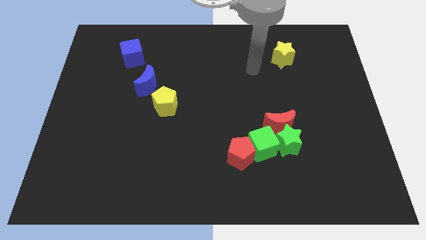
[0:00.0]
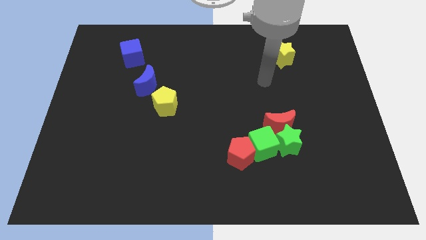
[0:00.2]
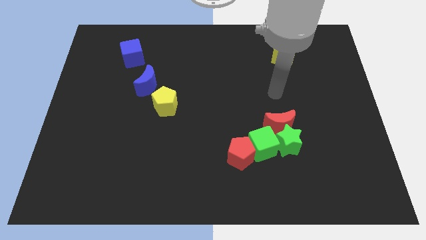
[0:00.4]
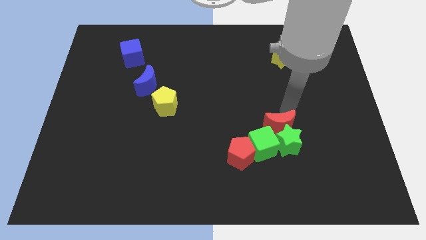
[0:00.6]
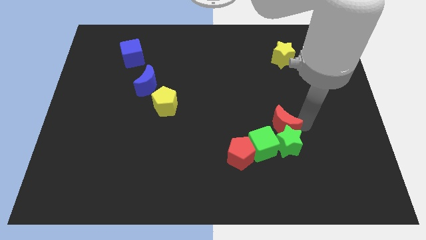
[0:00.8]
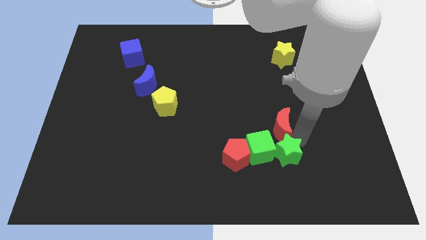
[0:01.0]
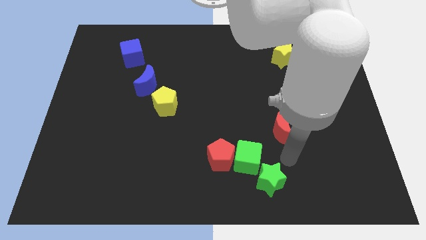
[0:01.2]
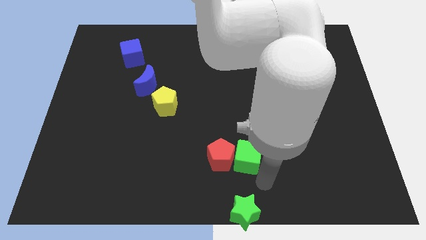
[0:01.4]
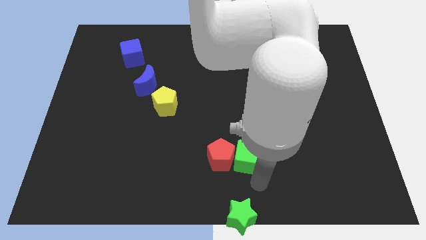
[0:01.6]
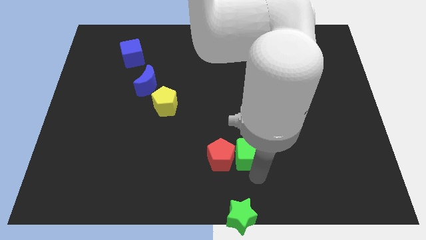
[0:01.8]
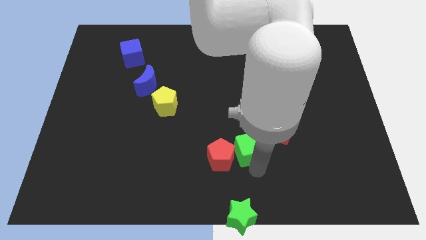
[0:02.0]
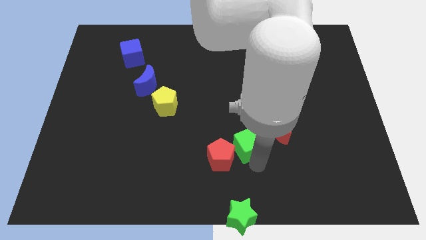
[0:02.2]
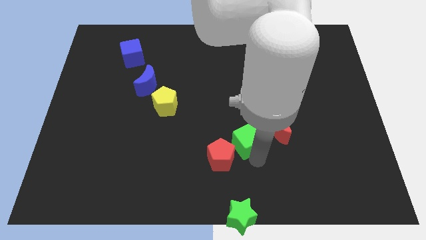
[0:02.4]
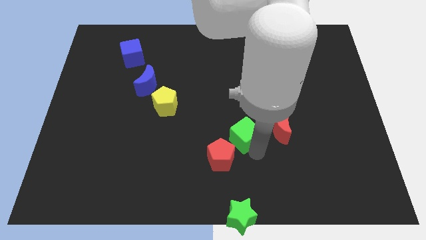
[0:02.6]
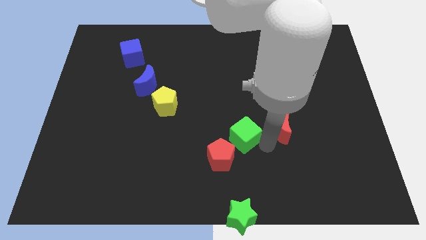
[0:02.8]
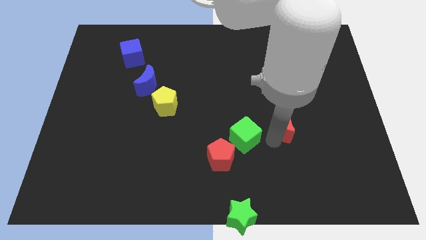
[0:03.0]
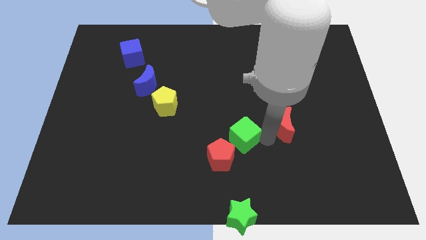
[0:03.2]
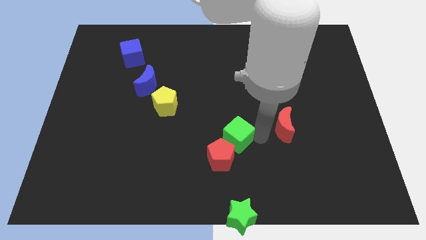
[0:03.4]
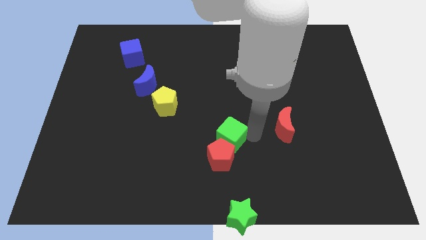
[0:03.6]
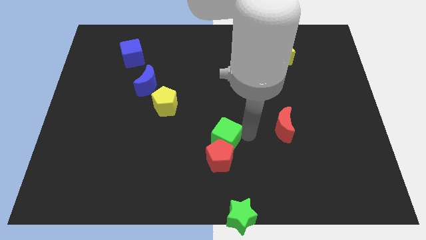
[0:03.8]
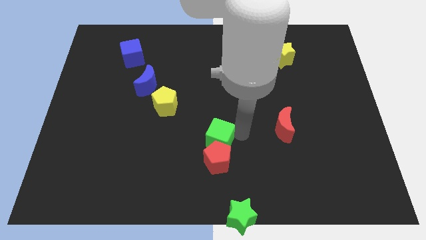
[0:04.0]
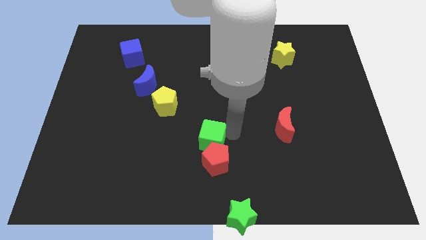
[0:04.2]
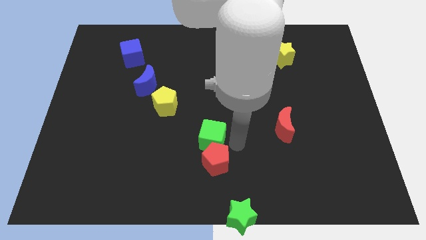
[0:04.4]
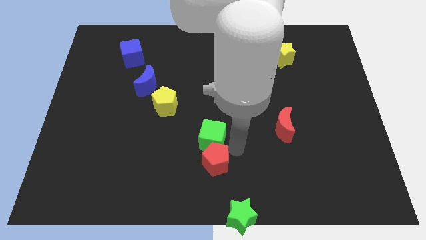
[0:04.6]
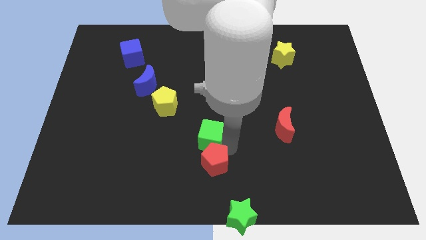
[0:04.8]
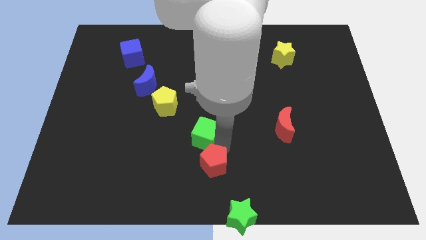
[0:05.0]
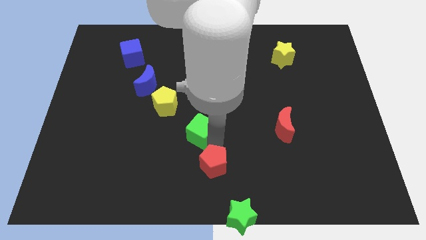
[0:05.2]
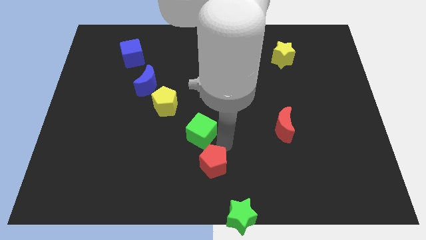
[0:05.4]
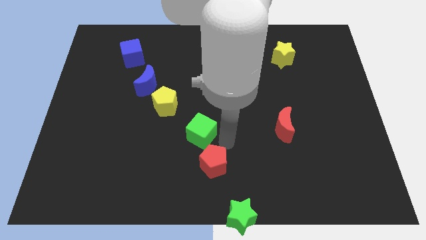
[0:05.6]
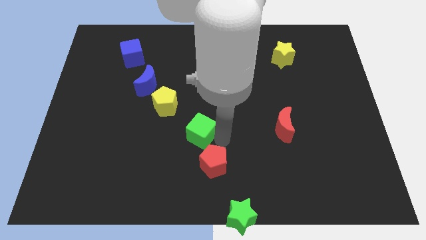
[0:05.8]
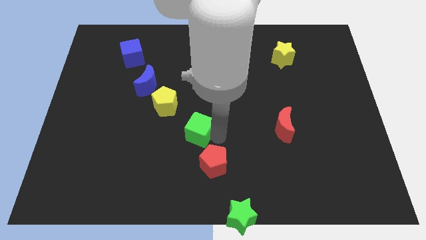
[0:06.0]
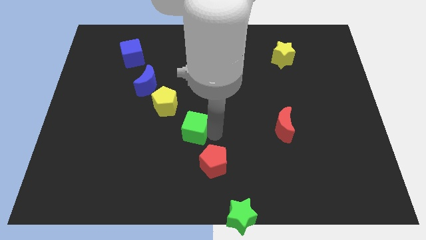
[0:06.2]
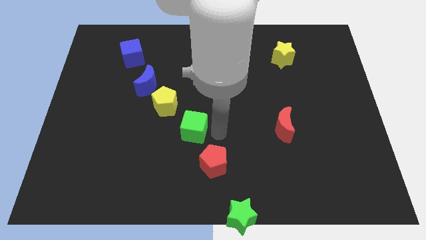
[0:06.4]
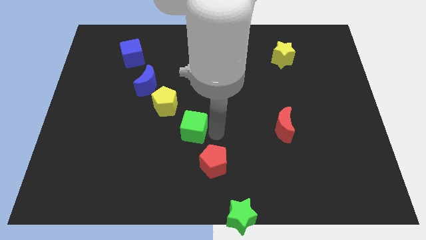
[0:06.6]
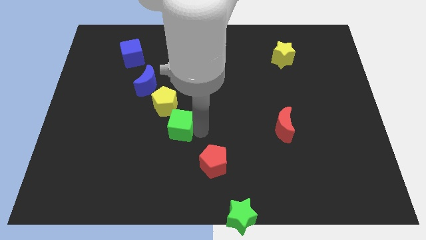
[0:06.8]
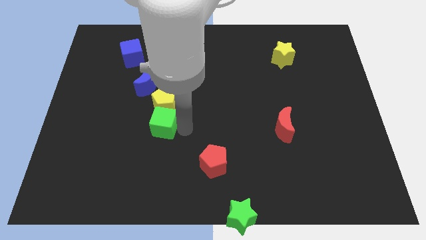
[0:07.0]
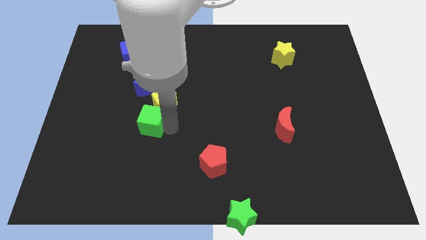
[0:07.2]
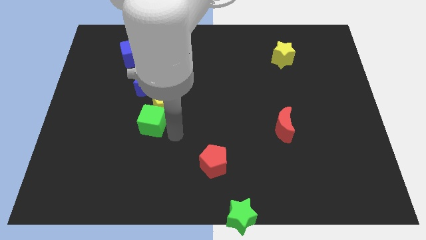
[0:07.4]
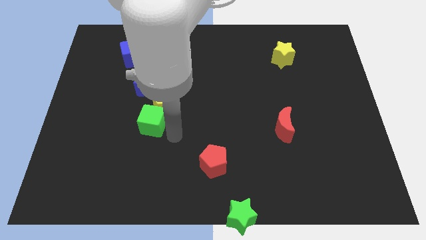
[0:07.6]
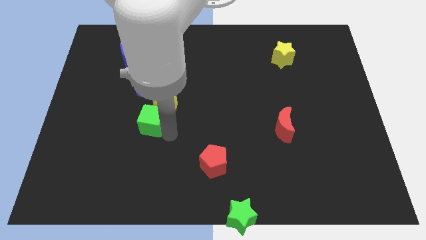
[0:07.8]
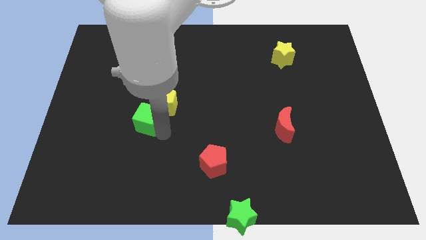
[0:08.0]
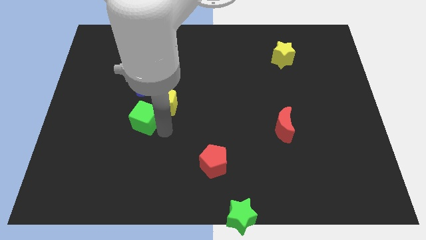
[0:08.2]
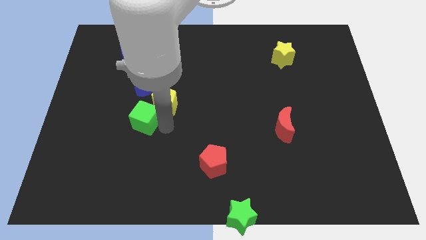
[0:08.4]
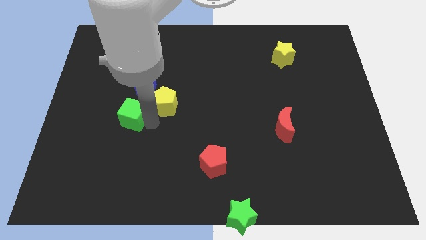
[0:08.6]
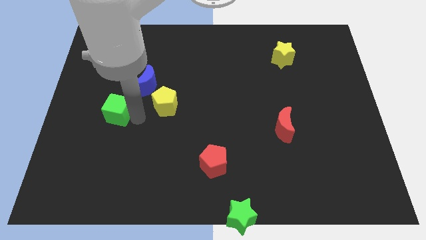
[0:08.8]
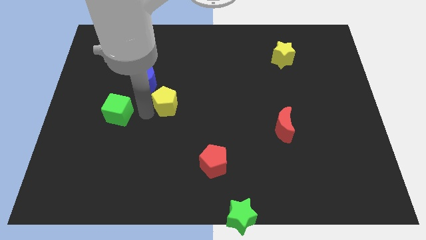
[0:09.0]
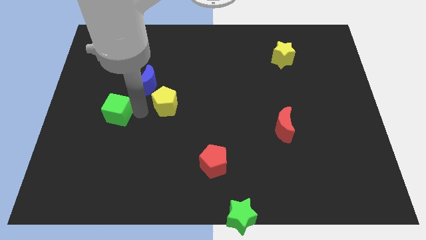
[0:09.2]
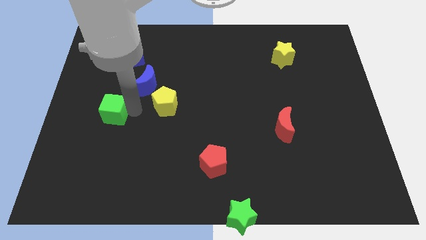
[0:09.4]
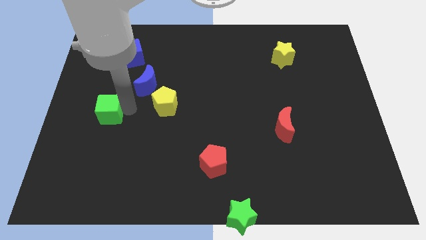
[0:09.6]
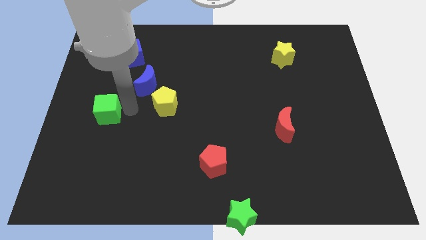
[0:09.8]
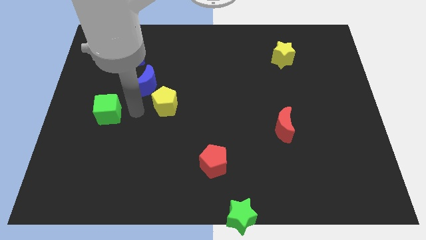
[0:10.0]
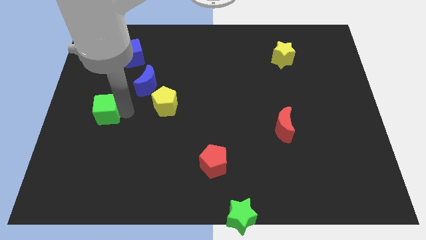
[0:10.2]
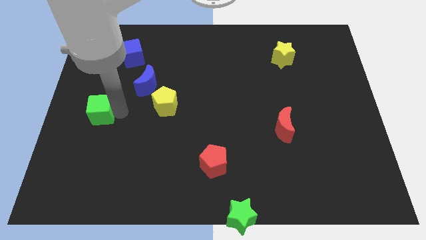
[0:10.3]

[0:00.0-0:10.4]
slide the green cube to the left side of the board

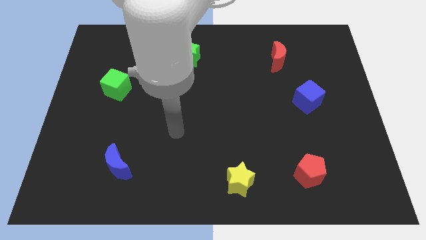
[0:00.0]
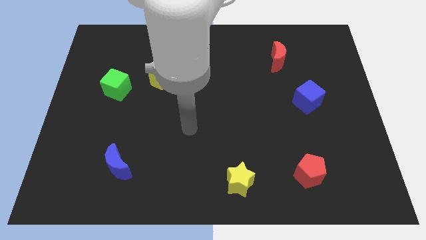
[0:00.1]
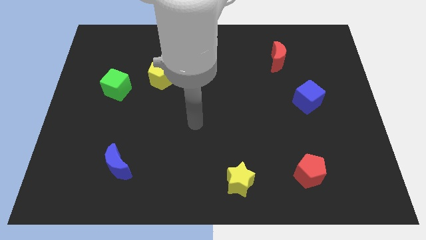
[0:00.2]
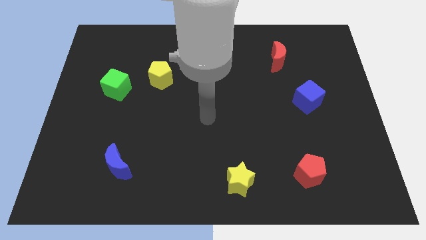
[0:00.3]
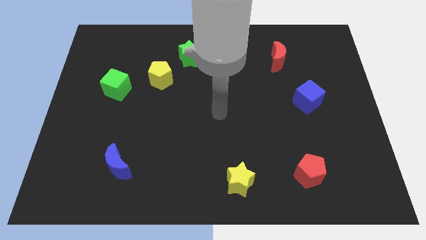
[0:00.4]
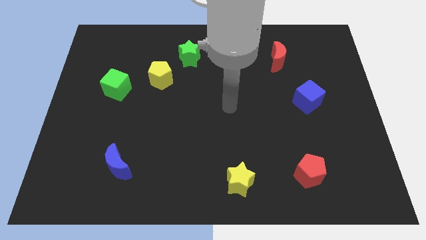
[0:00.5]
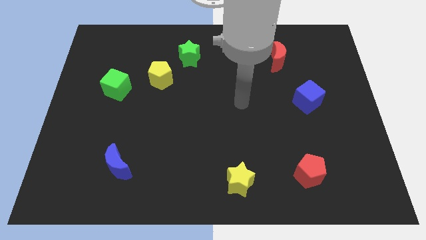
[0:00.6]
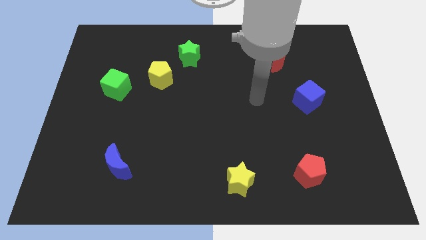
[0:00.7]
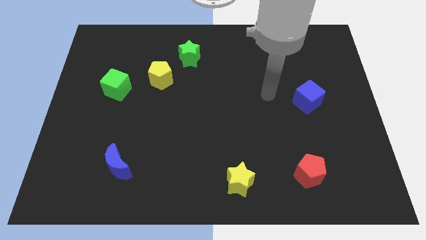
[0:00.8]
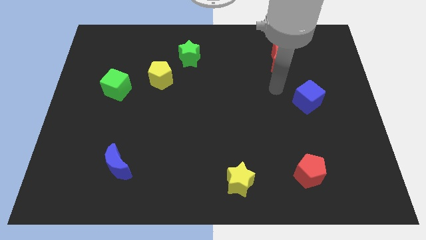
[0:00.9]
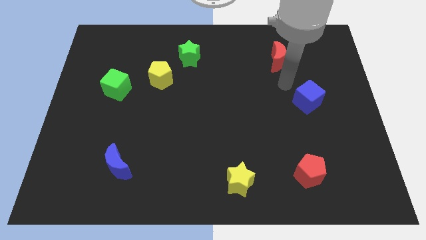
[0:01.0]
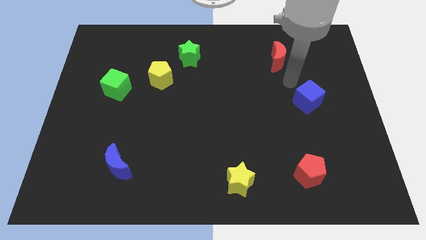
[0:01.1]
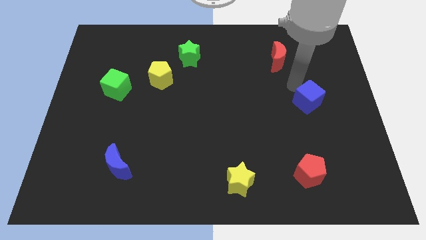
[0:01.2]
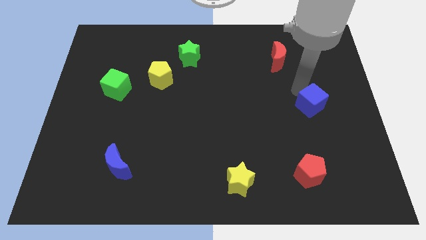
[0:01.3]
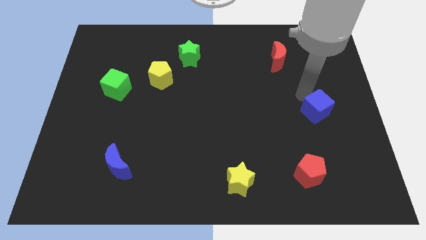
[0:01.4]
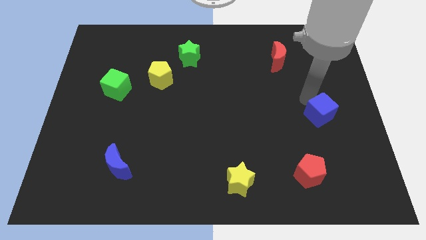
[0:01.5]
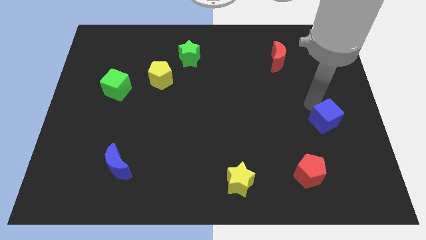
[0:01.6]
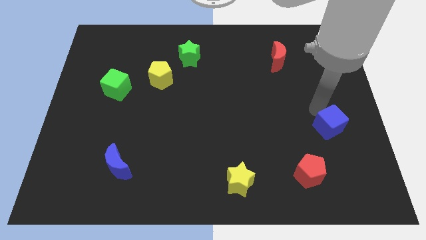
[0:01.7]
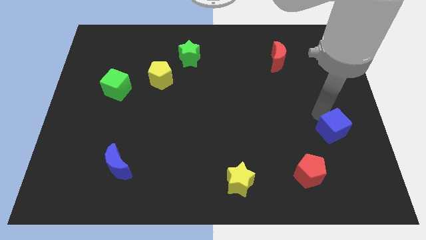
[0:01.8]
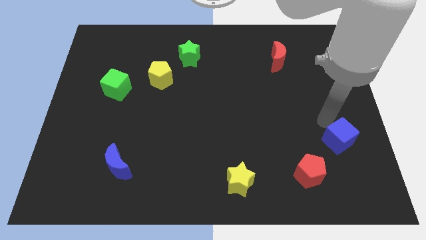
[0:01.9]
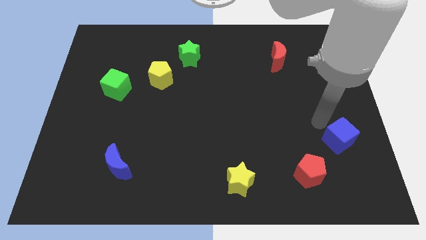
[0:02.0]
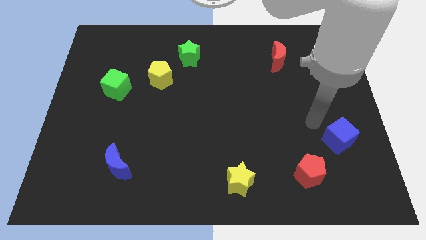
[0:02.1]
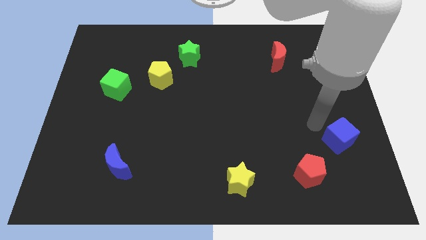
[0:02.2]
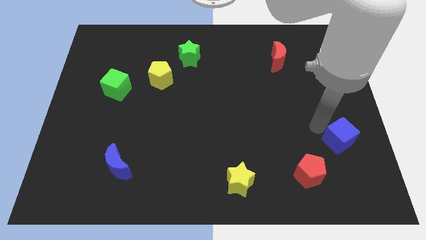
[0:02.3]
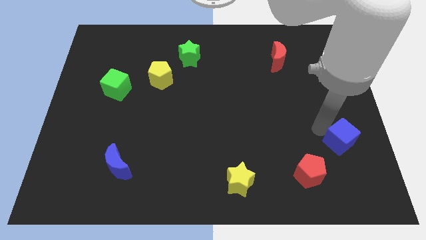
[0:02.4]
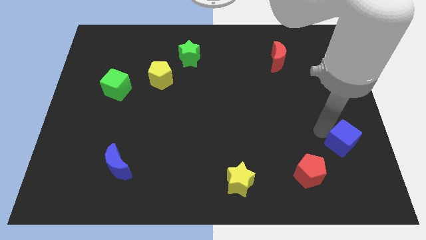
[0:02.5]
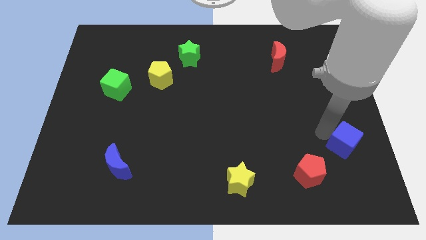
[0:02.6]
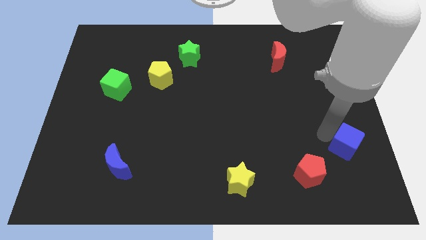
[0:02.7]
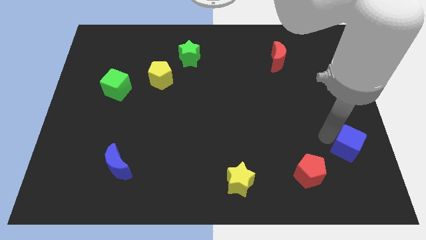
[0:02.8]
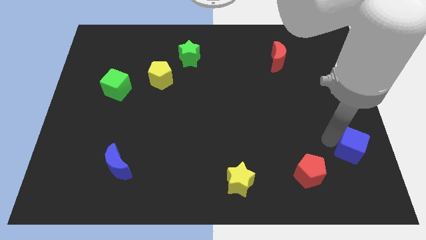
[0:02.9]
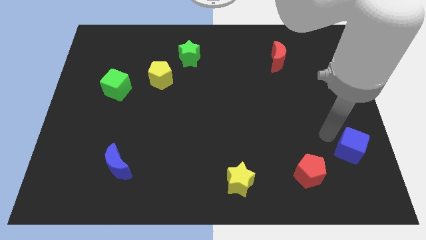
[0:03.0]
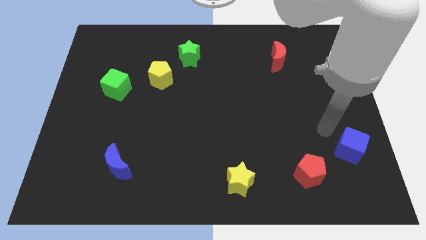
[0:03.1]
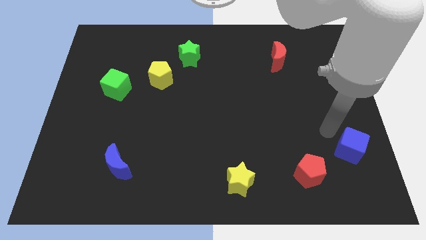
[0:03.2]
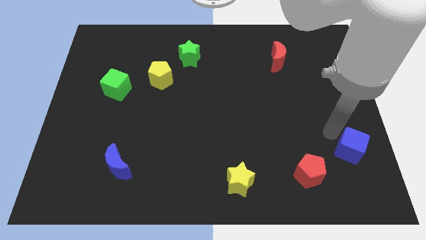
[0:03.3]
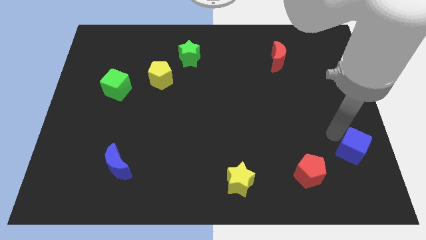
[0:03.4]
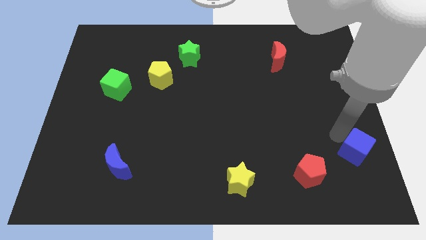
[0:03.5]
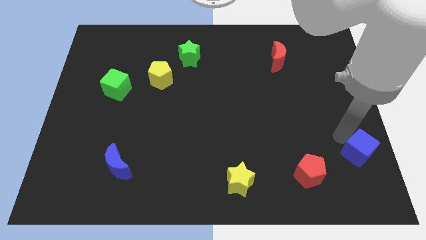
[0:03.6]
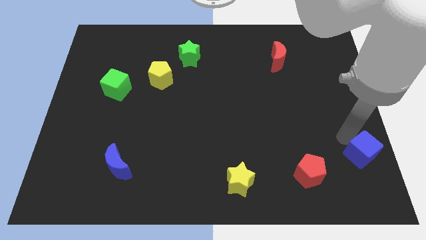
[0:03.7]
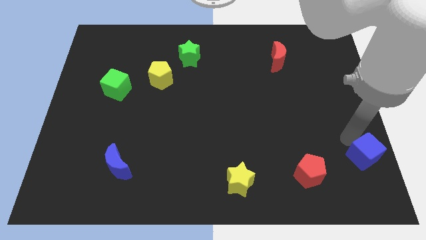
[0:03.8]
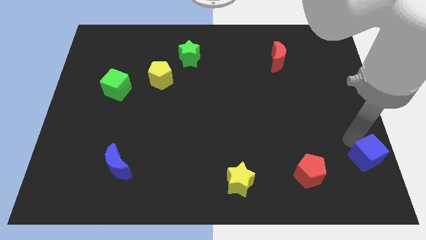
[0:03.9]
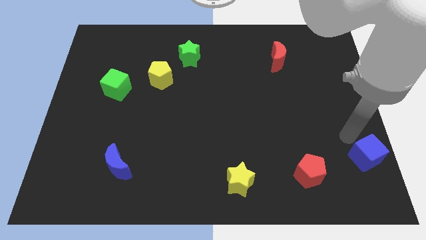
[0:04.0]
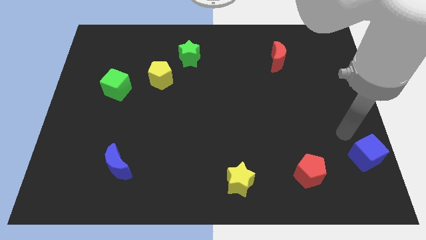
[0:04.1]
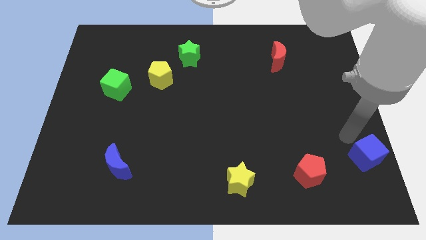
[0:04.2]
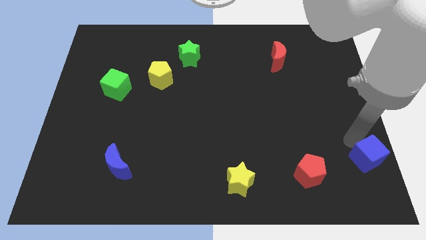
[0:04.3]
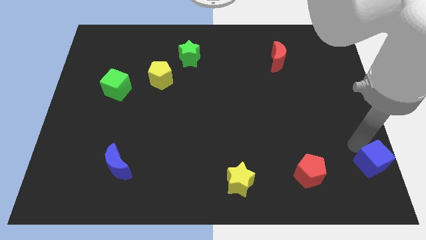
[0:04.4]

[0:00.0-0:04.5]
slide the blue cube to the bottom right
